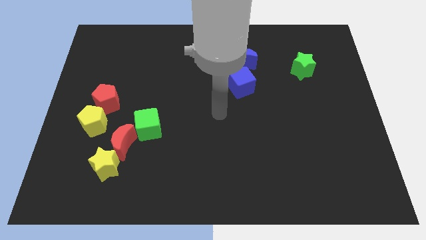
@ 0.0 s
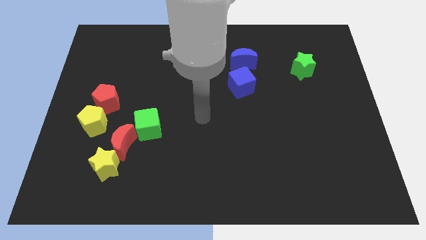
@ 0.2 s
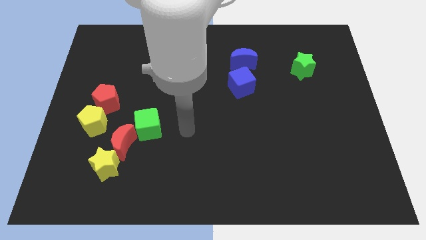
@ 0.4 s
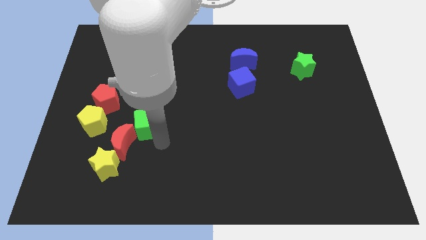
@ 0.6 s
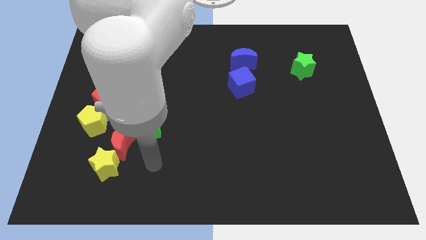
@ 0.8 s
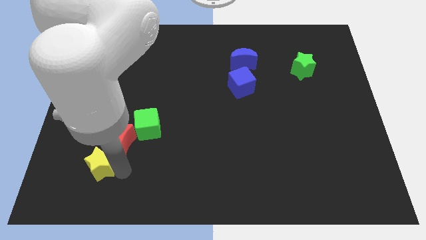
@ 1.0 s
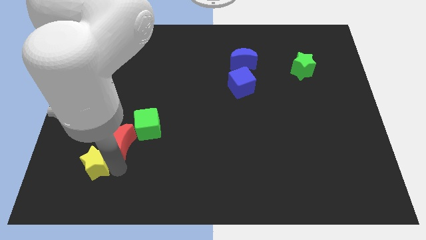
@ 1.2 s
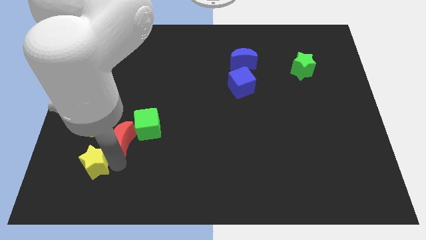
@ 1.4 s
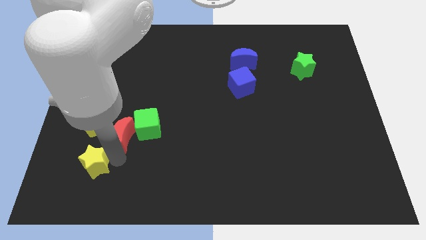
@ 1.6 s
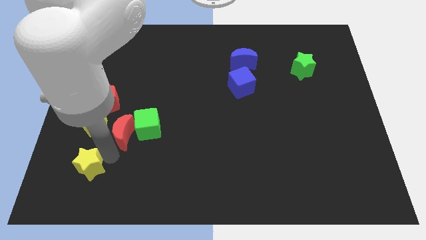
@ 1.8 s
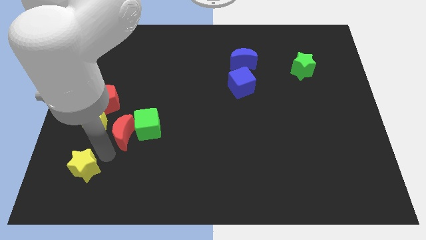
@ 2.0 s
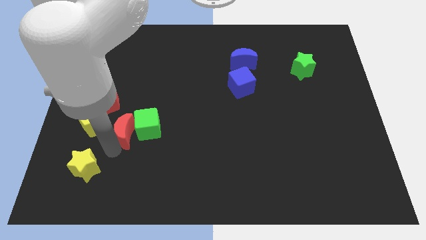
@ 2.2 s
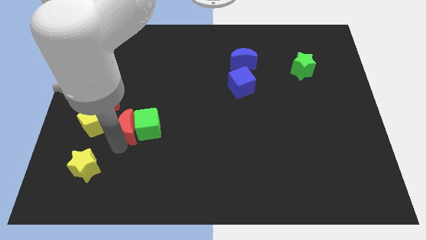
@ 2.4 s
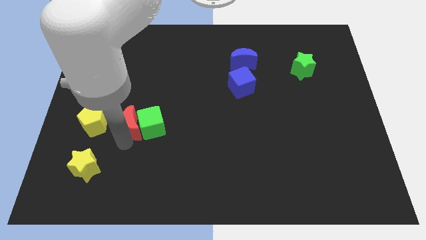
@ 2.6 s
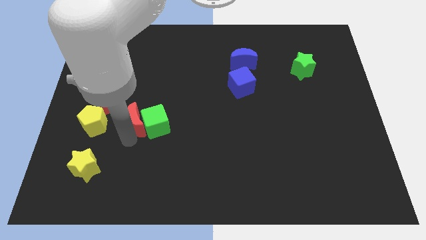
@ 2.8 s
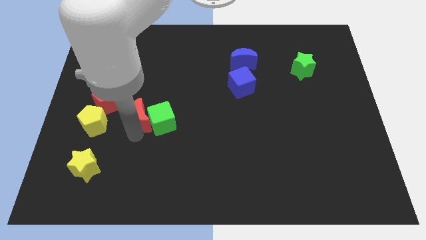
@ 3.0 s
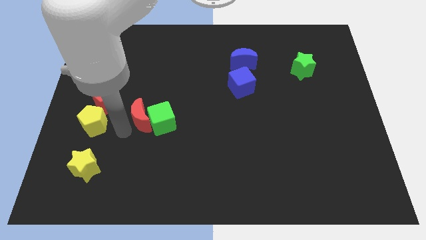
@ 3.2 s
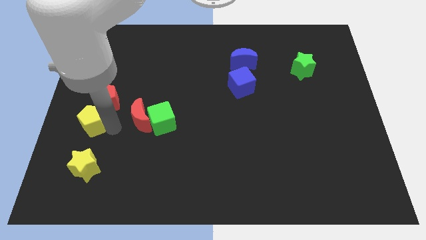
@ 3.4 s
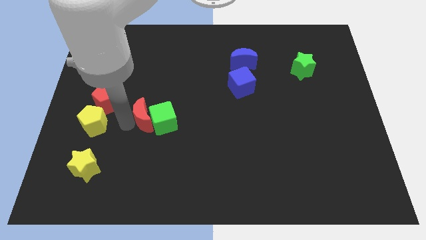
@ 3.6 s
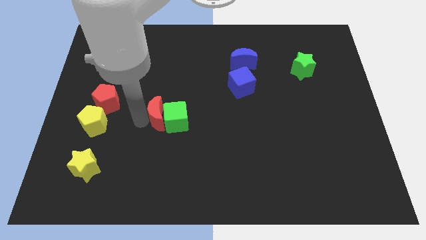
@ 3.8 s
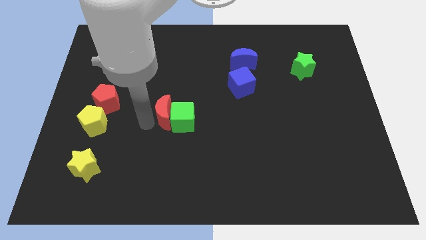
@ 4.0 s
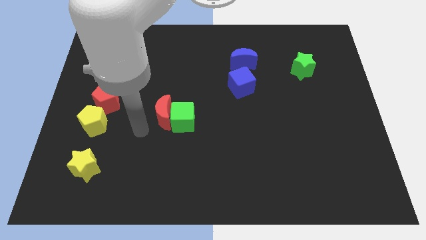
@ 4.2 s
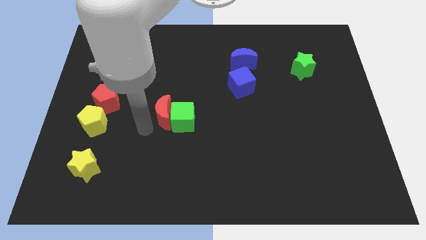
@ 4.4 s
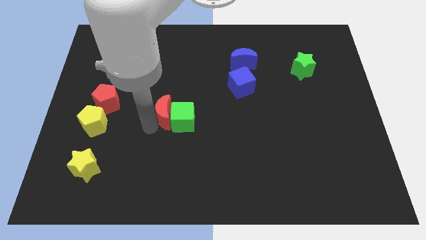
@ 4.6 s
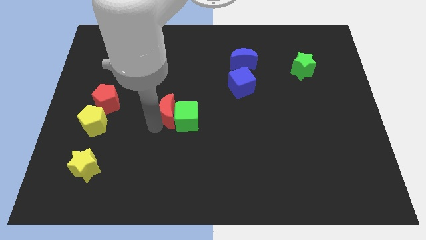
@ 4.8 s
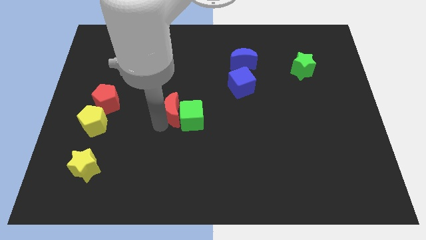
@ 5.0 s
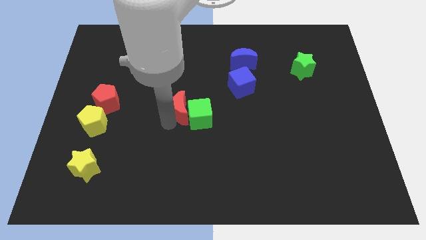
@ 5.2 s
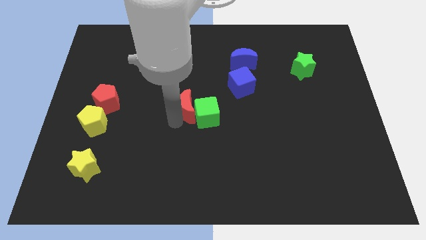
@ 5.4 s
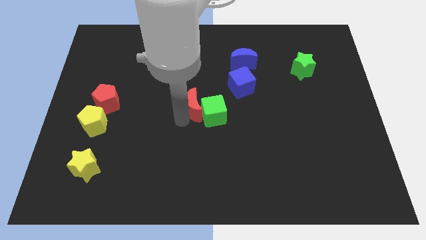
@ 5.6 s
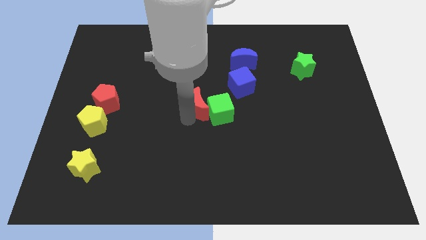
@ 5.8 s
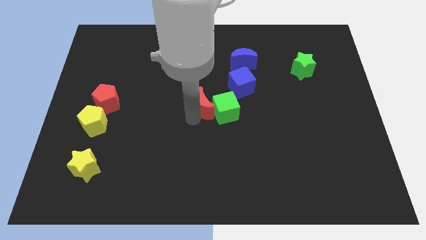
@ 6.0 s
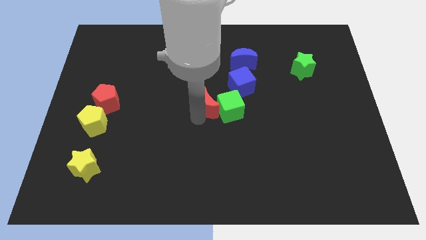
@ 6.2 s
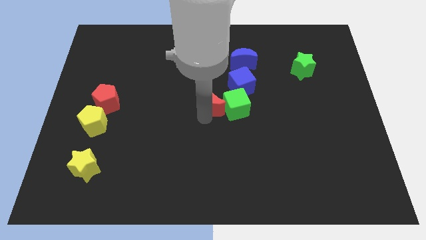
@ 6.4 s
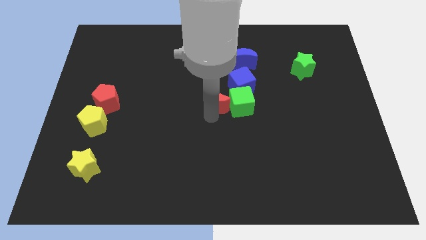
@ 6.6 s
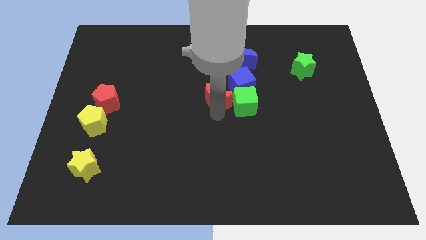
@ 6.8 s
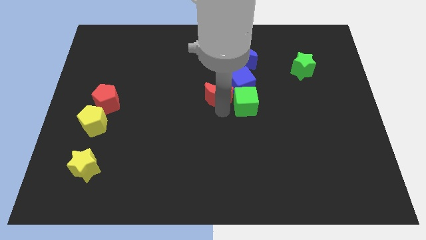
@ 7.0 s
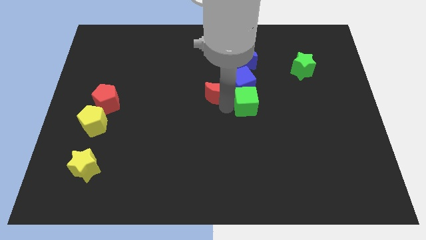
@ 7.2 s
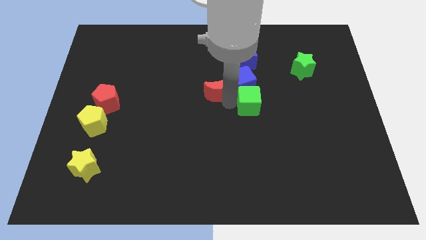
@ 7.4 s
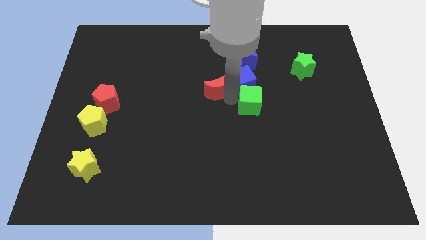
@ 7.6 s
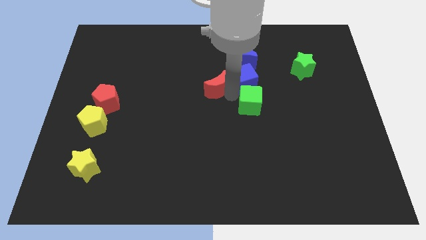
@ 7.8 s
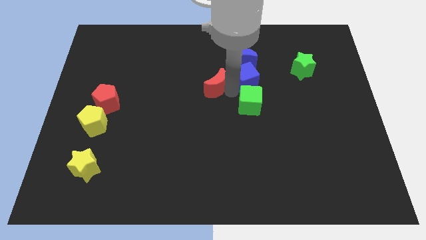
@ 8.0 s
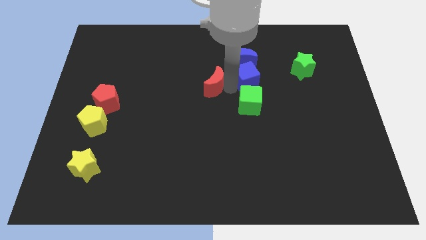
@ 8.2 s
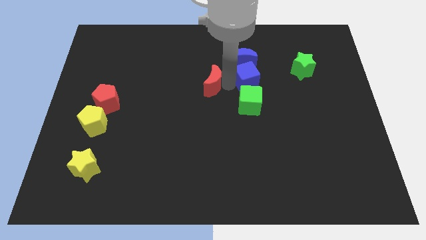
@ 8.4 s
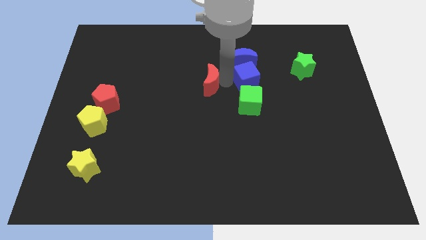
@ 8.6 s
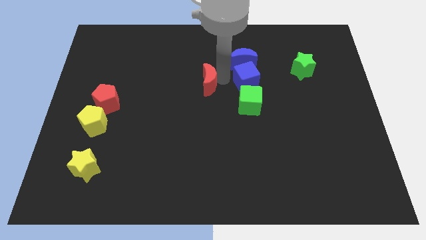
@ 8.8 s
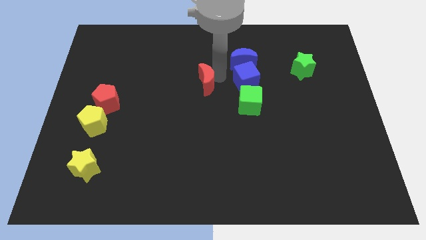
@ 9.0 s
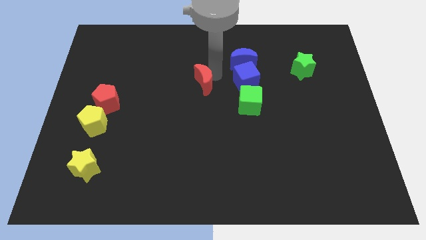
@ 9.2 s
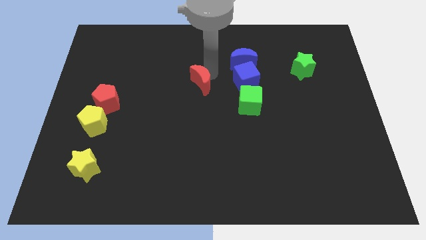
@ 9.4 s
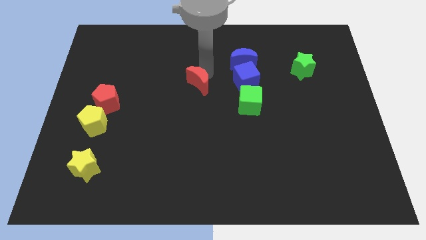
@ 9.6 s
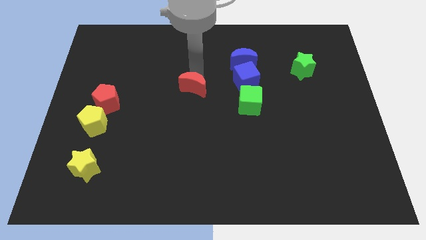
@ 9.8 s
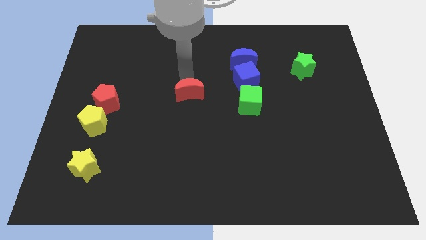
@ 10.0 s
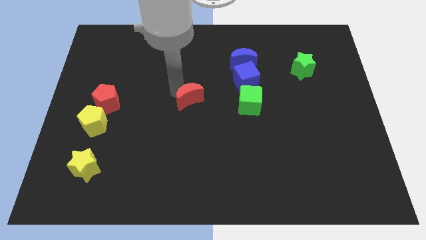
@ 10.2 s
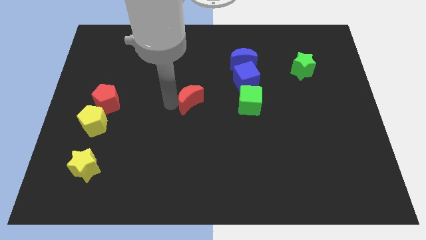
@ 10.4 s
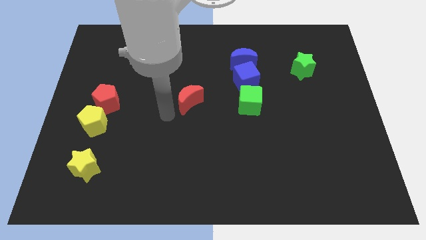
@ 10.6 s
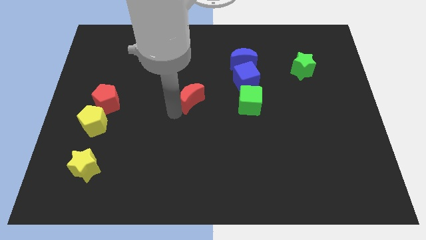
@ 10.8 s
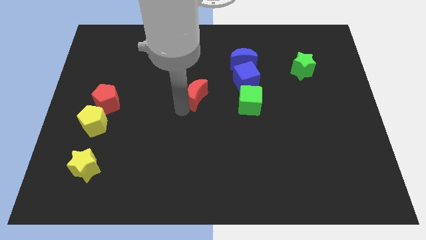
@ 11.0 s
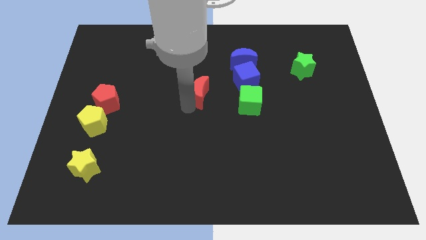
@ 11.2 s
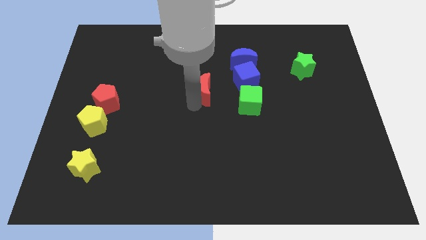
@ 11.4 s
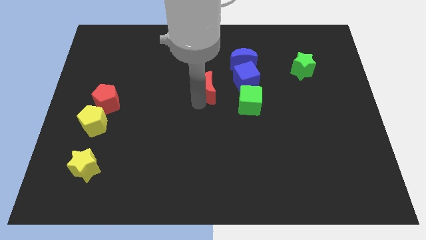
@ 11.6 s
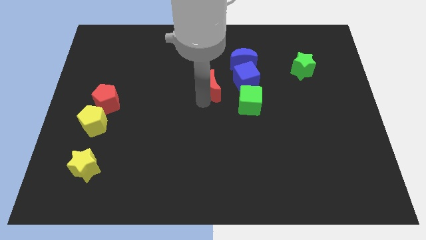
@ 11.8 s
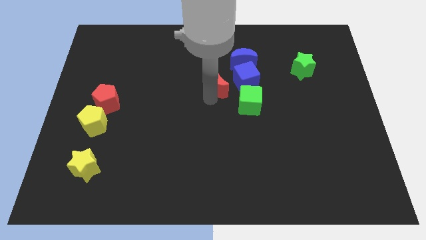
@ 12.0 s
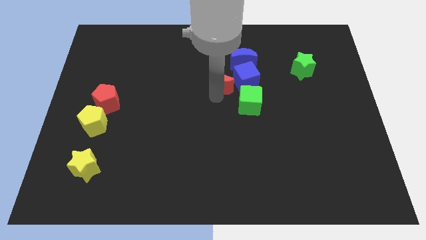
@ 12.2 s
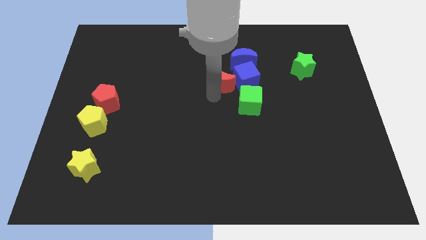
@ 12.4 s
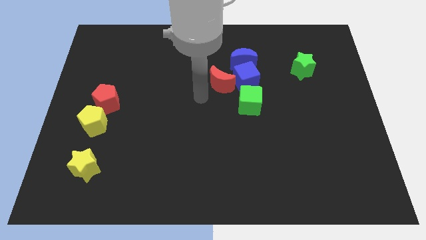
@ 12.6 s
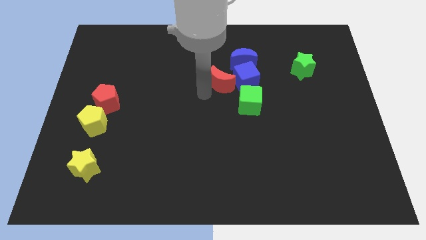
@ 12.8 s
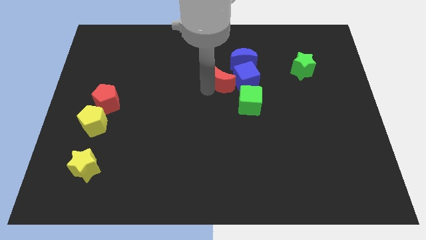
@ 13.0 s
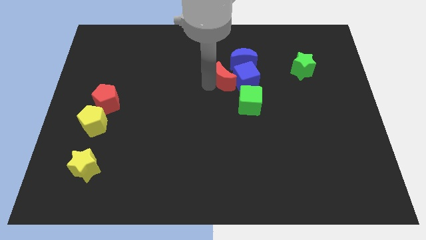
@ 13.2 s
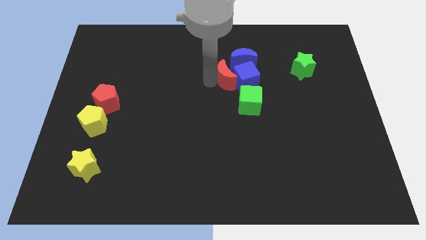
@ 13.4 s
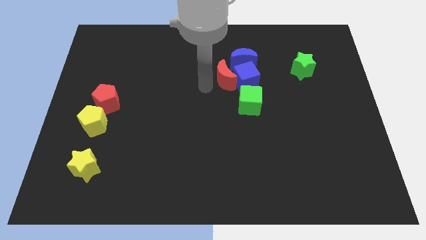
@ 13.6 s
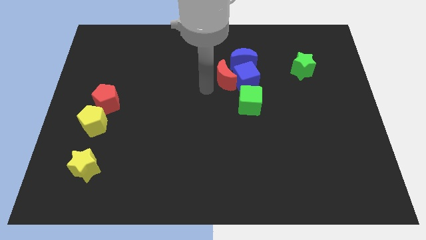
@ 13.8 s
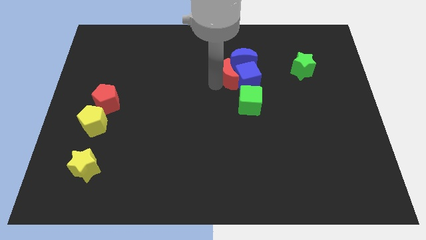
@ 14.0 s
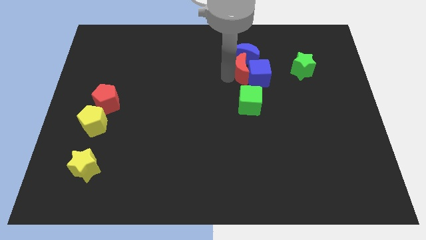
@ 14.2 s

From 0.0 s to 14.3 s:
move the red moon just left of the green star

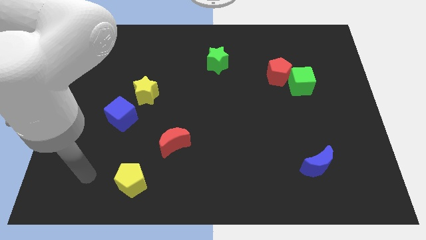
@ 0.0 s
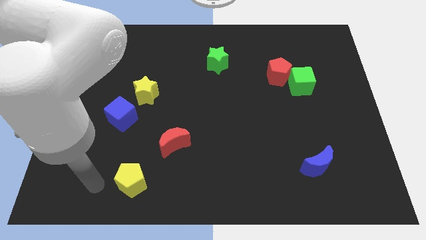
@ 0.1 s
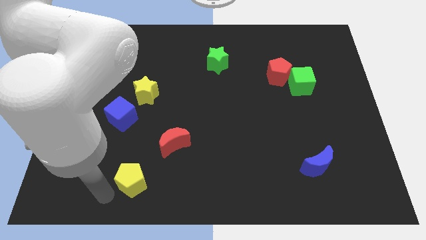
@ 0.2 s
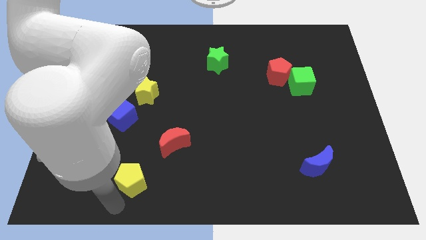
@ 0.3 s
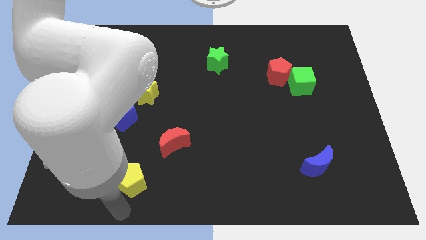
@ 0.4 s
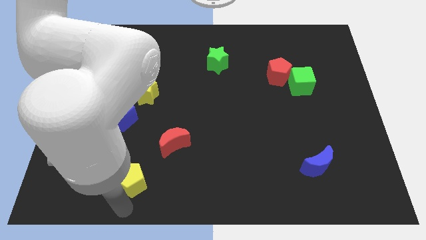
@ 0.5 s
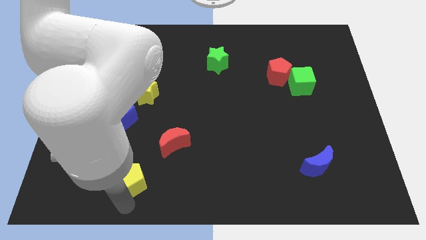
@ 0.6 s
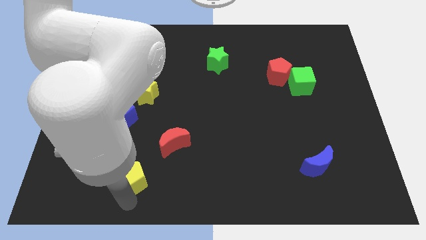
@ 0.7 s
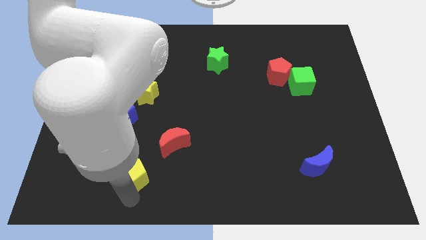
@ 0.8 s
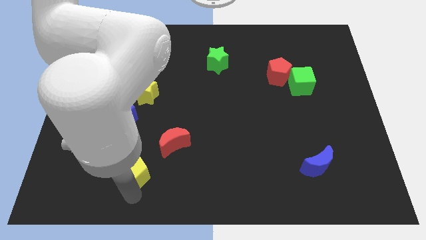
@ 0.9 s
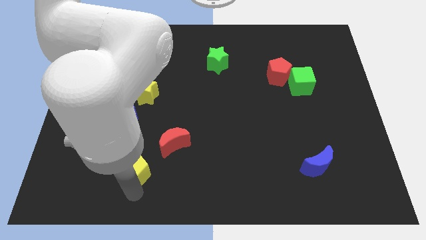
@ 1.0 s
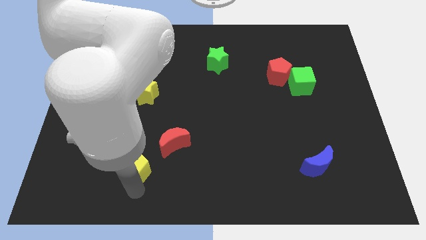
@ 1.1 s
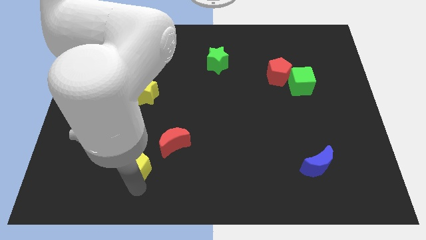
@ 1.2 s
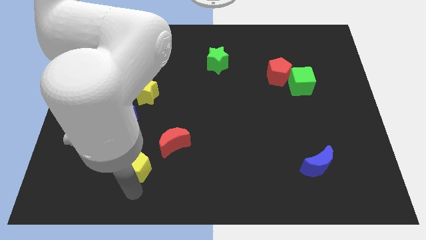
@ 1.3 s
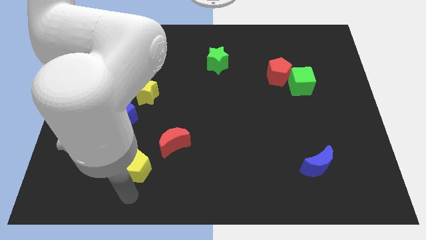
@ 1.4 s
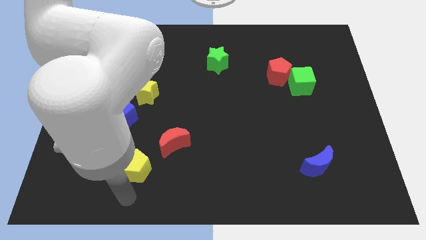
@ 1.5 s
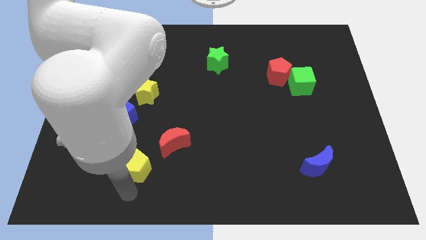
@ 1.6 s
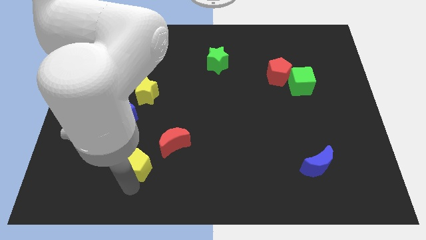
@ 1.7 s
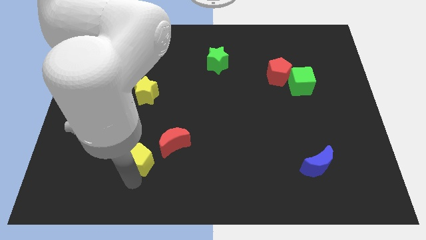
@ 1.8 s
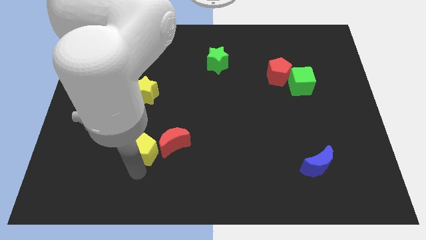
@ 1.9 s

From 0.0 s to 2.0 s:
push the yellow pentagon to the bottom side of the yellow star
